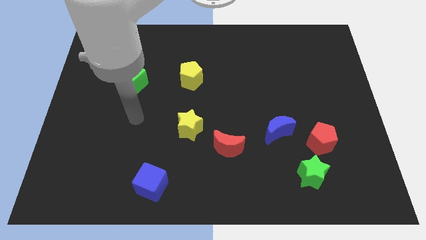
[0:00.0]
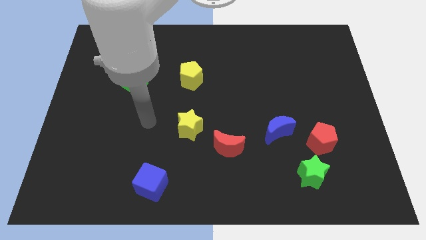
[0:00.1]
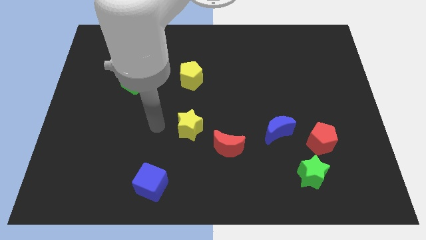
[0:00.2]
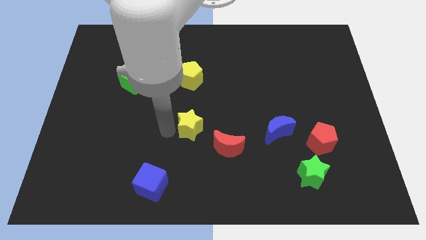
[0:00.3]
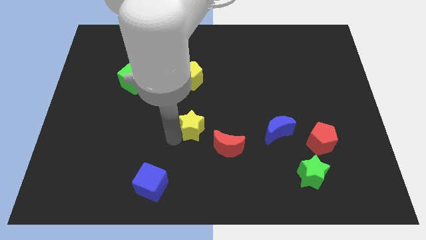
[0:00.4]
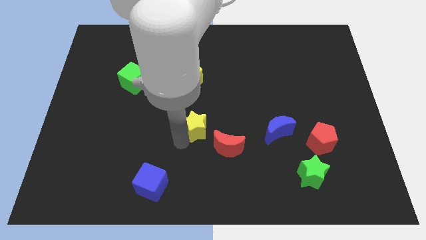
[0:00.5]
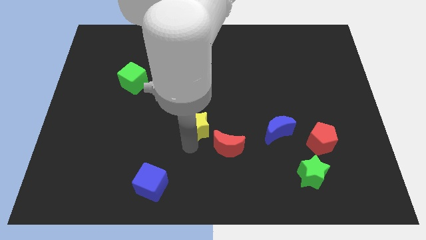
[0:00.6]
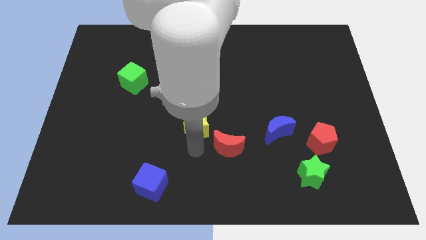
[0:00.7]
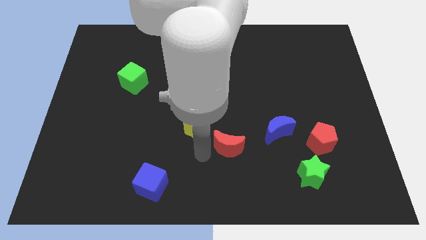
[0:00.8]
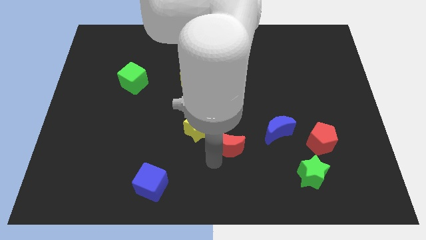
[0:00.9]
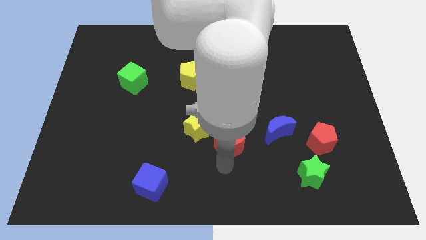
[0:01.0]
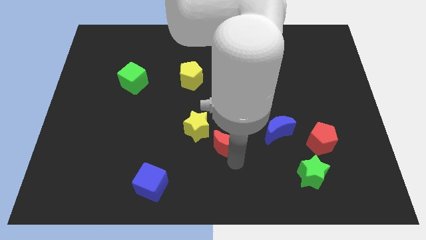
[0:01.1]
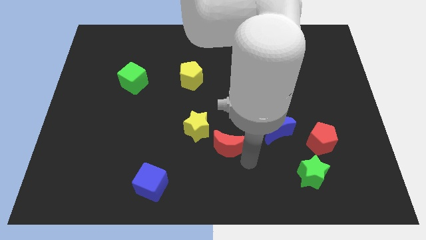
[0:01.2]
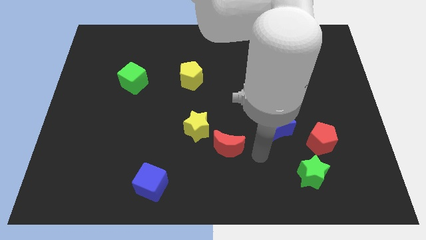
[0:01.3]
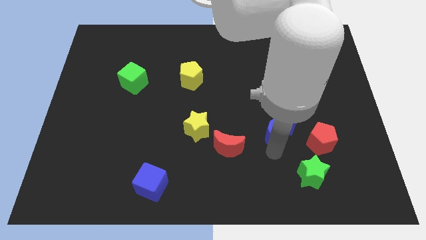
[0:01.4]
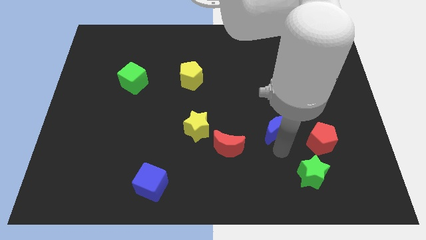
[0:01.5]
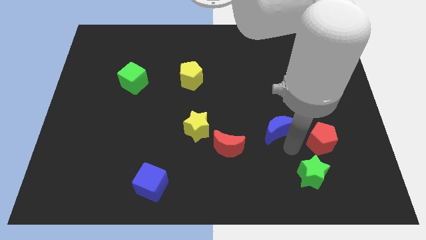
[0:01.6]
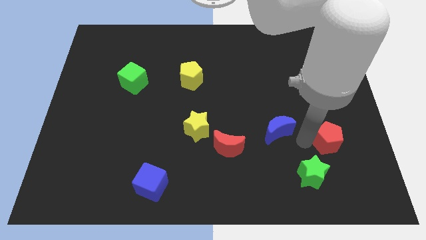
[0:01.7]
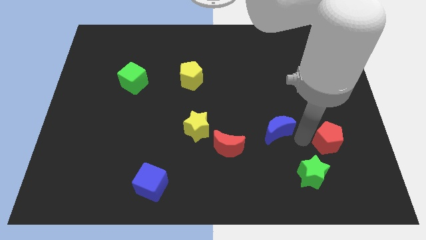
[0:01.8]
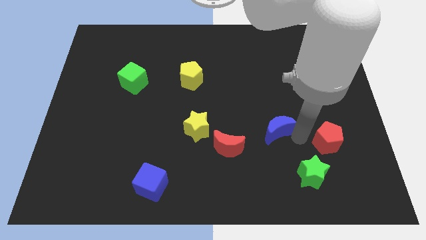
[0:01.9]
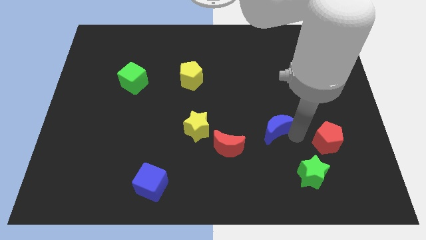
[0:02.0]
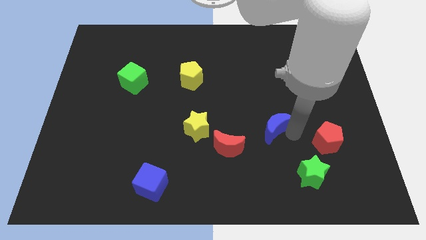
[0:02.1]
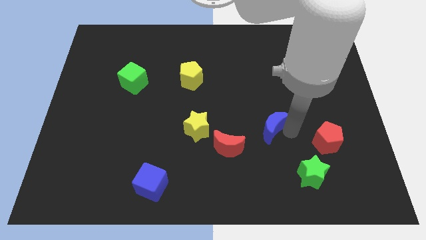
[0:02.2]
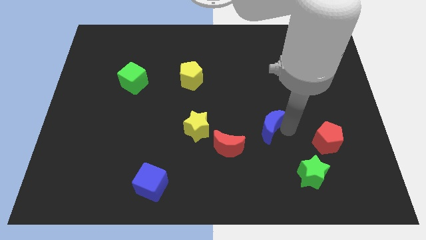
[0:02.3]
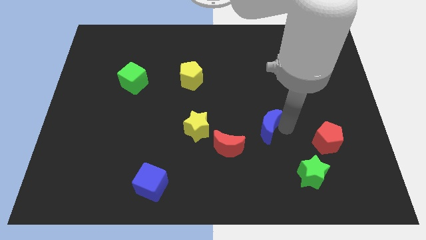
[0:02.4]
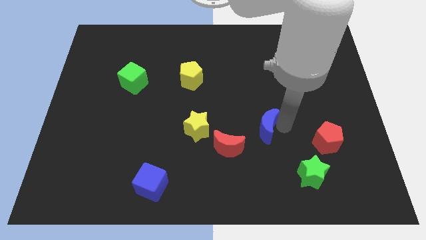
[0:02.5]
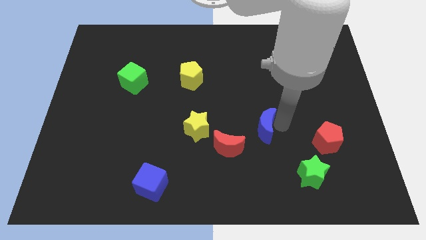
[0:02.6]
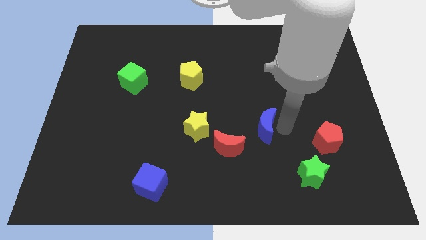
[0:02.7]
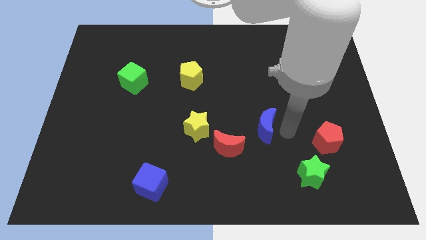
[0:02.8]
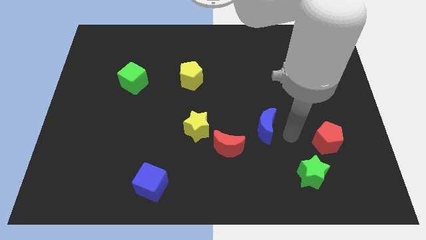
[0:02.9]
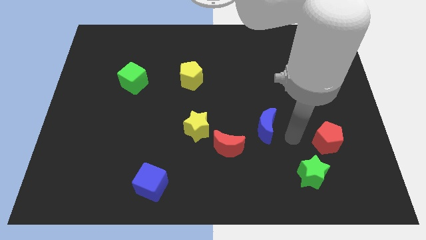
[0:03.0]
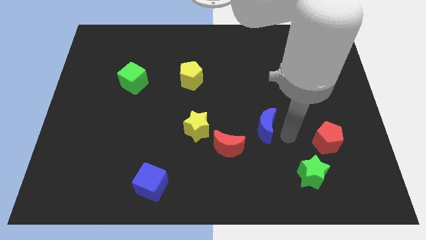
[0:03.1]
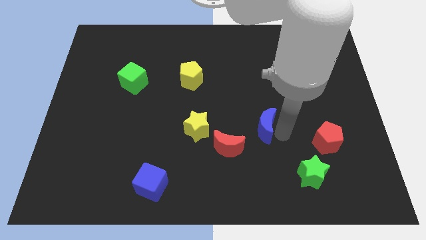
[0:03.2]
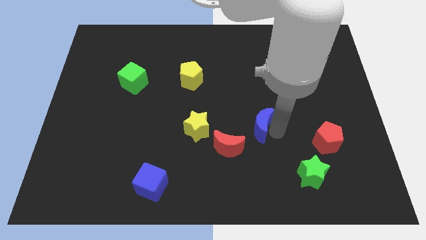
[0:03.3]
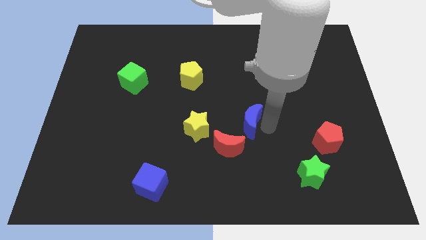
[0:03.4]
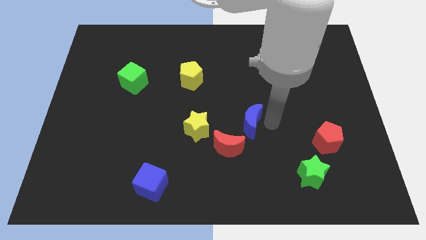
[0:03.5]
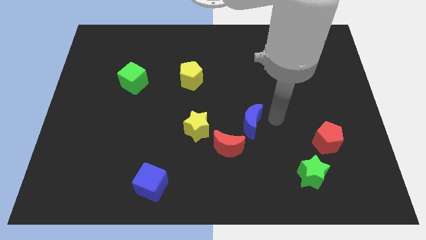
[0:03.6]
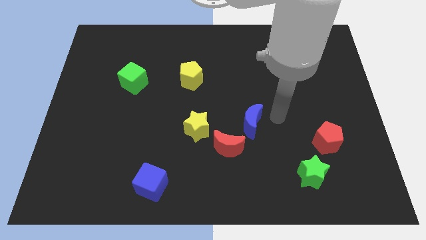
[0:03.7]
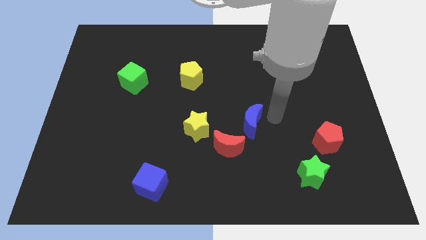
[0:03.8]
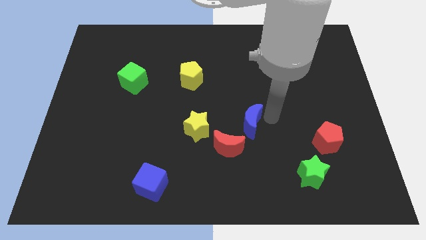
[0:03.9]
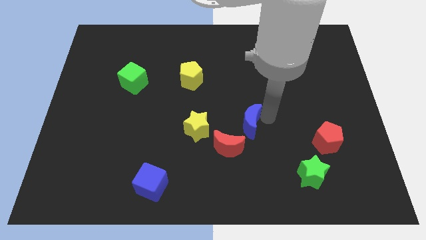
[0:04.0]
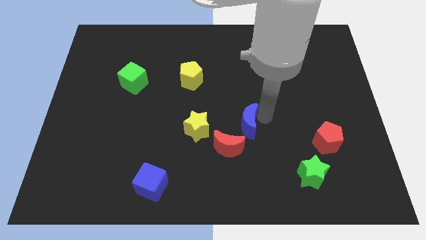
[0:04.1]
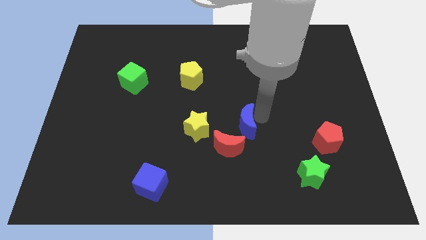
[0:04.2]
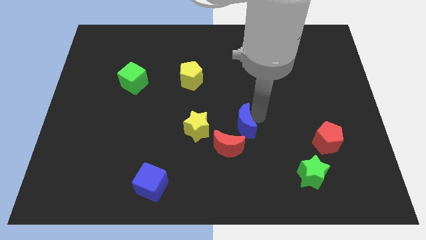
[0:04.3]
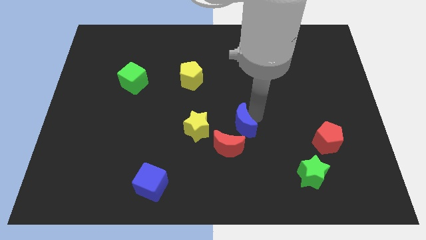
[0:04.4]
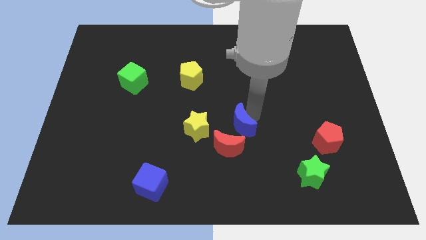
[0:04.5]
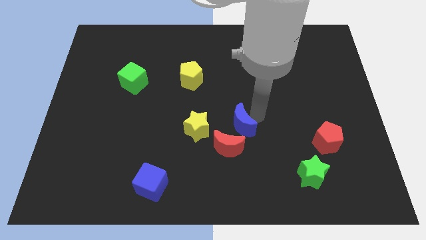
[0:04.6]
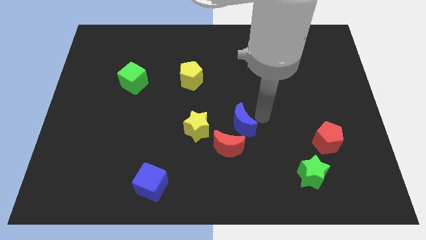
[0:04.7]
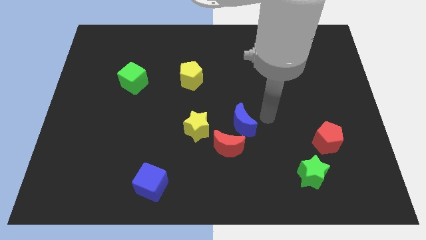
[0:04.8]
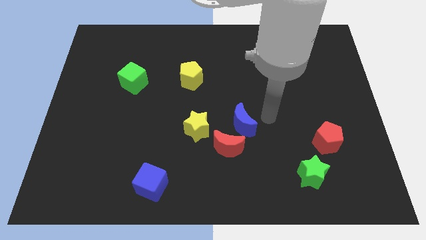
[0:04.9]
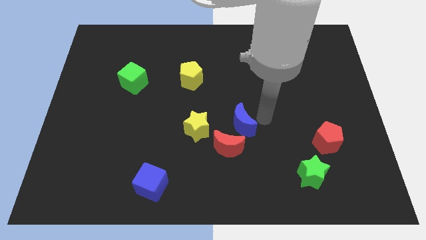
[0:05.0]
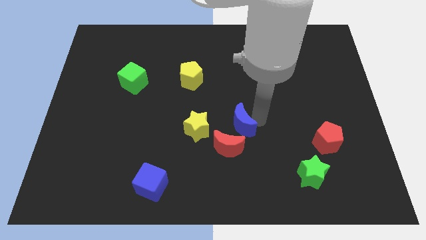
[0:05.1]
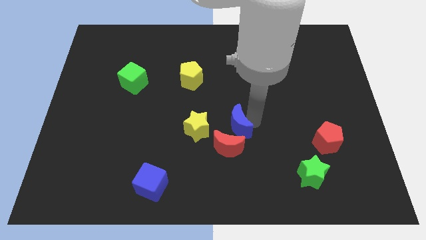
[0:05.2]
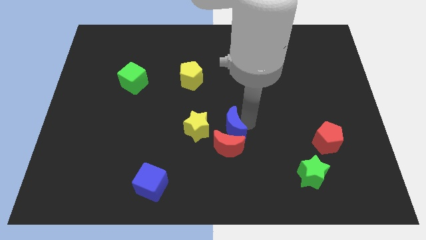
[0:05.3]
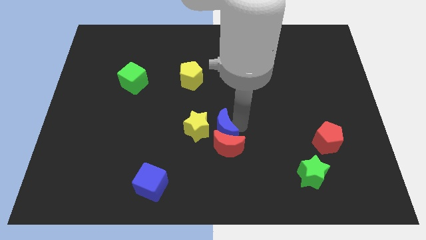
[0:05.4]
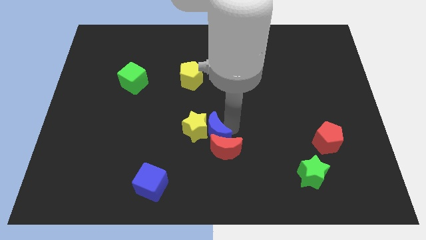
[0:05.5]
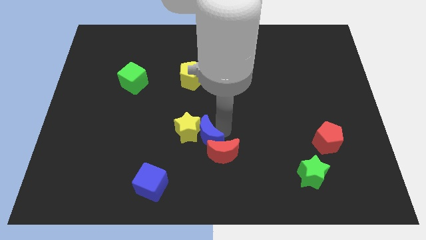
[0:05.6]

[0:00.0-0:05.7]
slide the blue moon left of the red moon

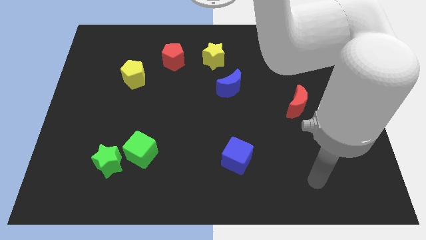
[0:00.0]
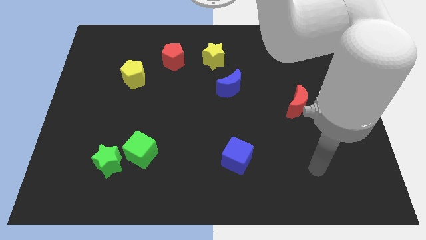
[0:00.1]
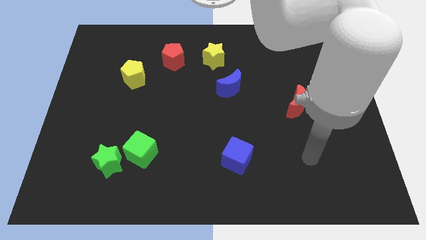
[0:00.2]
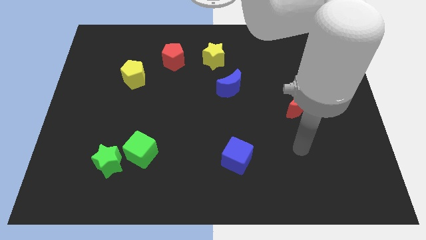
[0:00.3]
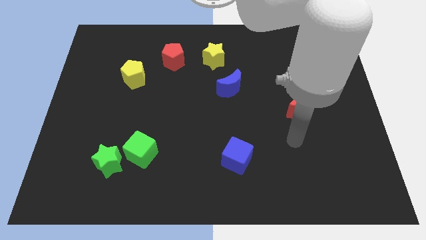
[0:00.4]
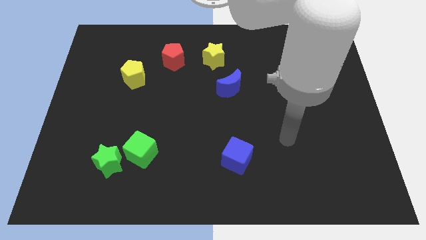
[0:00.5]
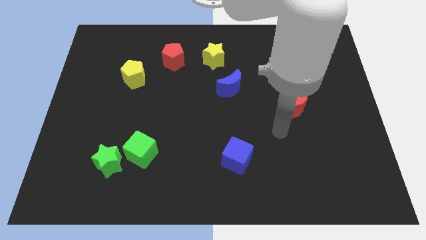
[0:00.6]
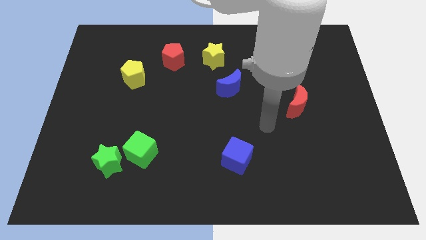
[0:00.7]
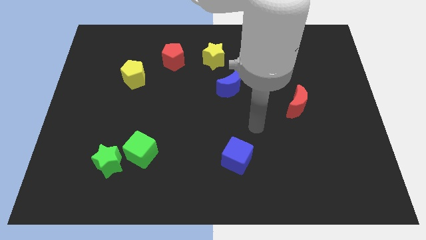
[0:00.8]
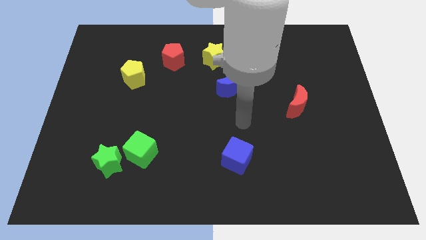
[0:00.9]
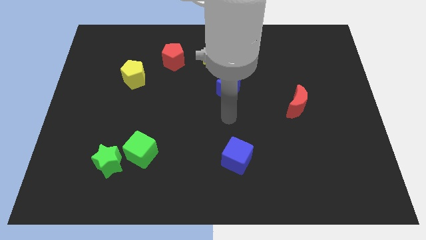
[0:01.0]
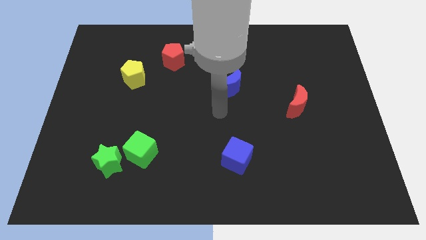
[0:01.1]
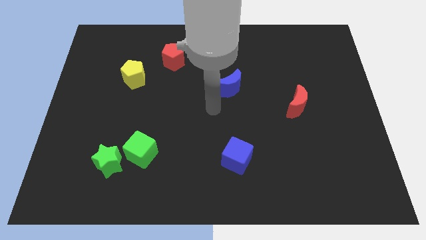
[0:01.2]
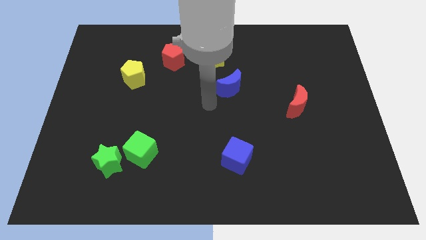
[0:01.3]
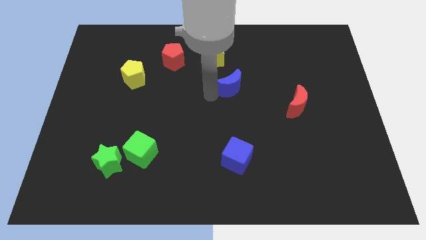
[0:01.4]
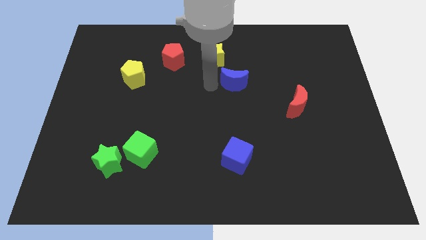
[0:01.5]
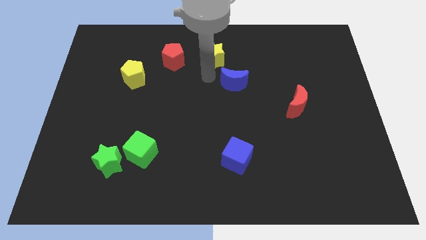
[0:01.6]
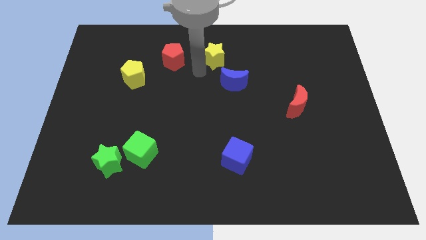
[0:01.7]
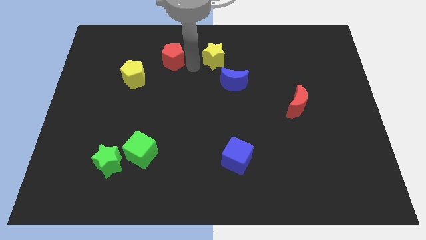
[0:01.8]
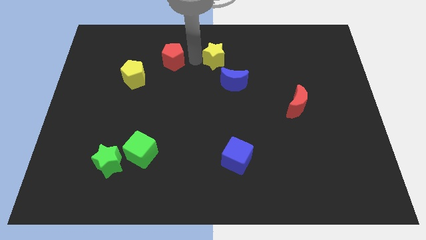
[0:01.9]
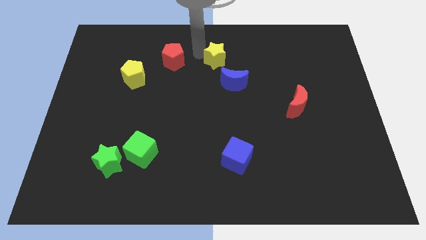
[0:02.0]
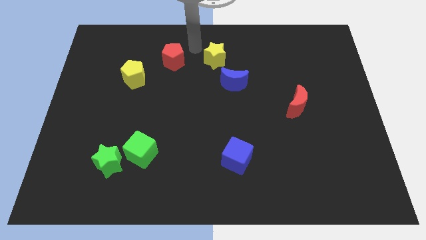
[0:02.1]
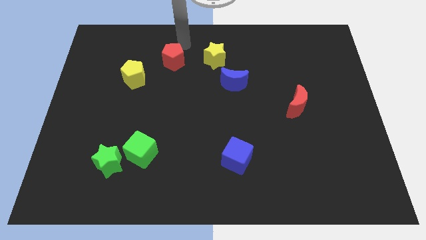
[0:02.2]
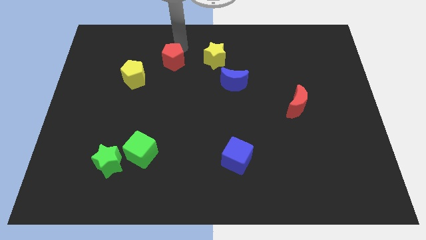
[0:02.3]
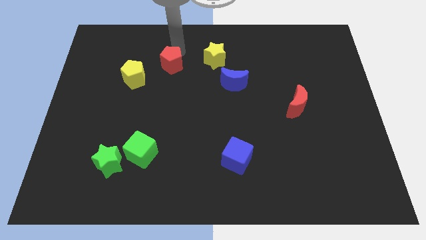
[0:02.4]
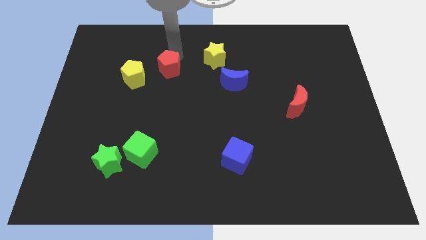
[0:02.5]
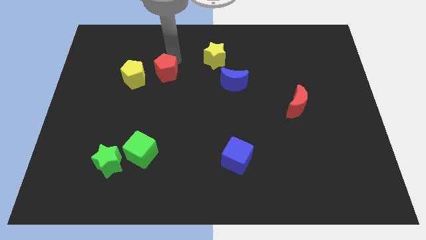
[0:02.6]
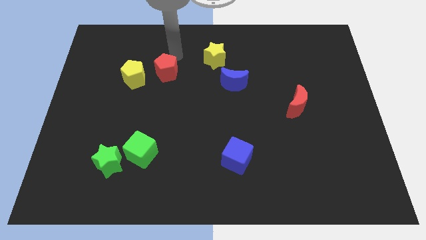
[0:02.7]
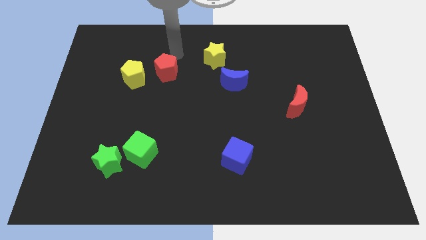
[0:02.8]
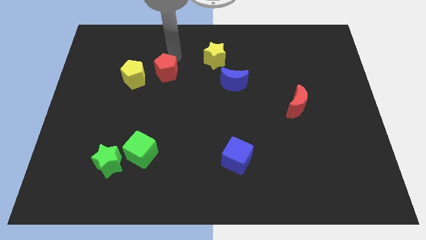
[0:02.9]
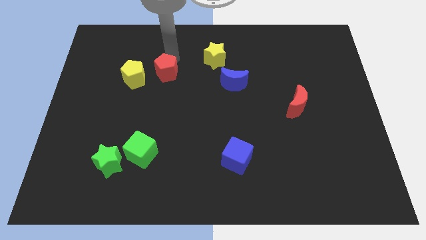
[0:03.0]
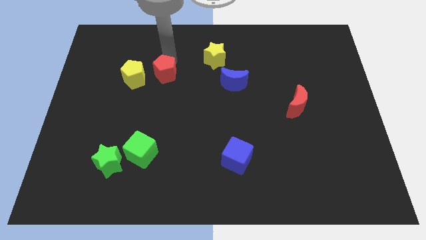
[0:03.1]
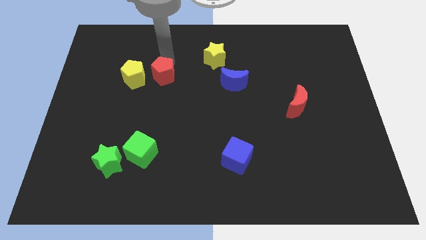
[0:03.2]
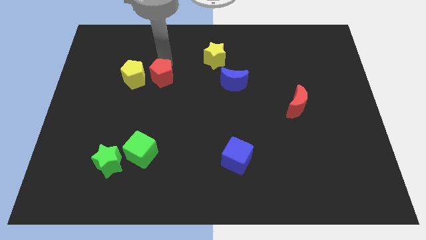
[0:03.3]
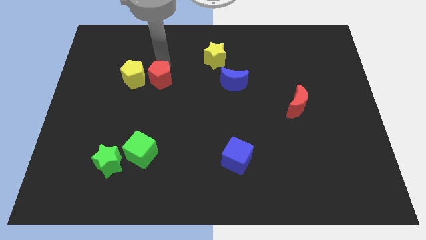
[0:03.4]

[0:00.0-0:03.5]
slide the red pentagon to the bottom right side of the yellow pentagon
